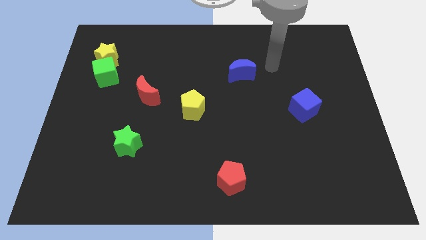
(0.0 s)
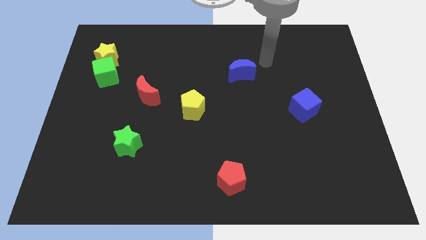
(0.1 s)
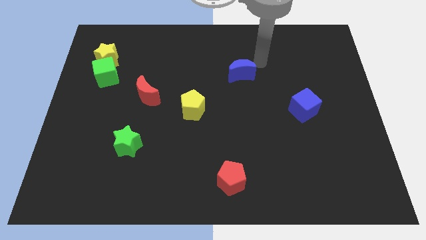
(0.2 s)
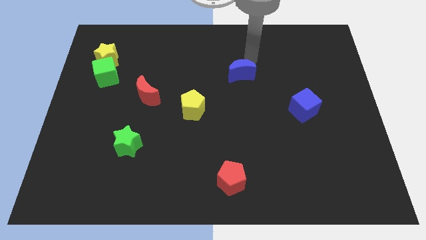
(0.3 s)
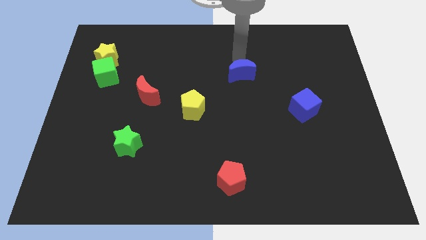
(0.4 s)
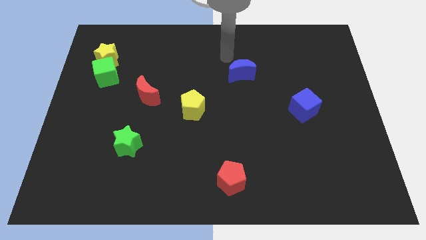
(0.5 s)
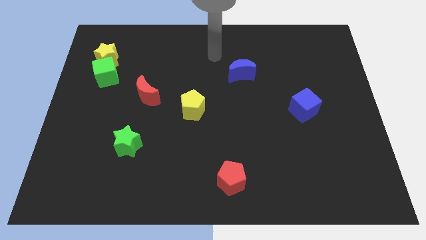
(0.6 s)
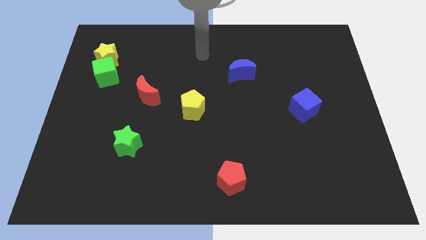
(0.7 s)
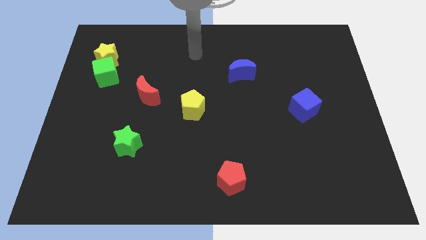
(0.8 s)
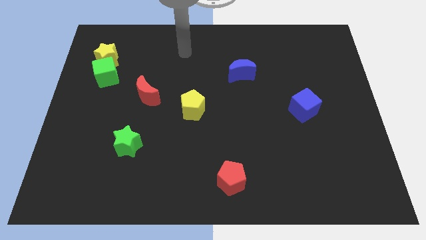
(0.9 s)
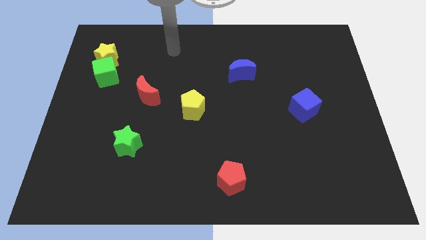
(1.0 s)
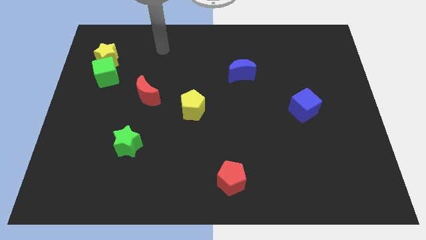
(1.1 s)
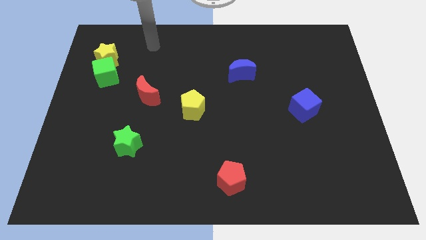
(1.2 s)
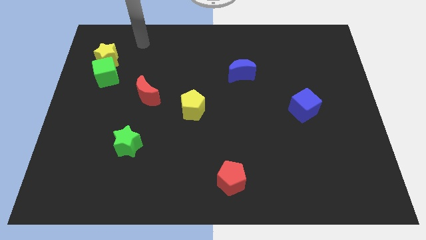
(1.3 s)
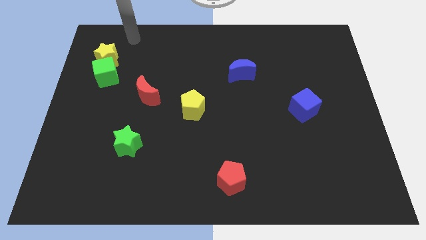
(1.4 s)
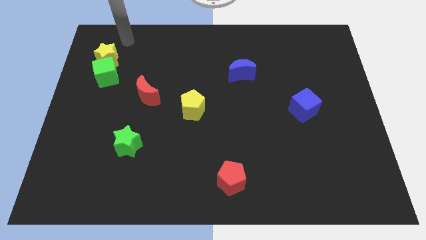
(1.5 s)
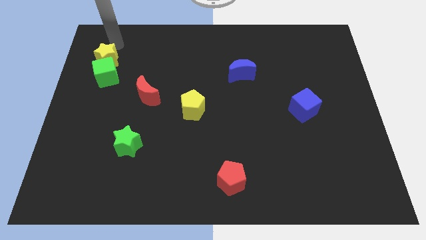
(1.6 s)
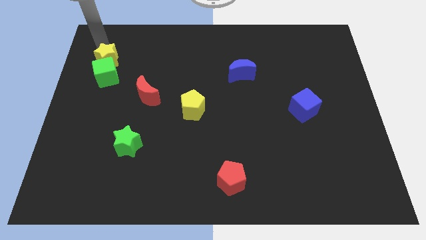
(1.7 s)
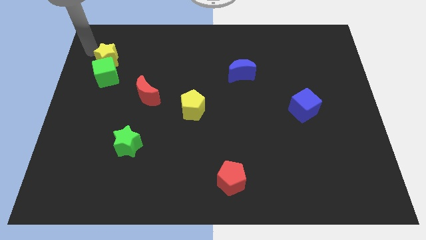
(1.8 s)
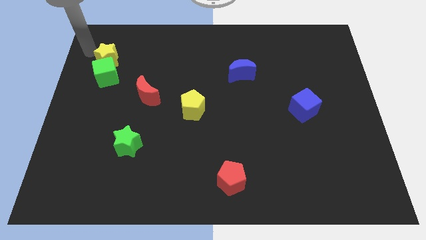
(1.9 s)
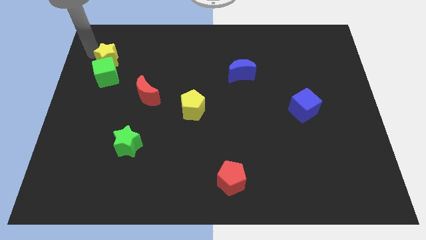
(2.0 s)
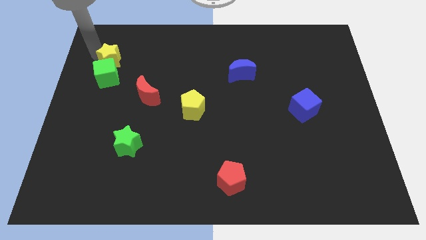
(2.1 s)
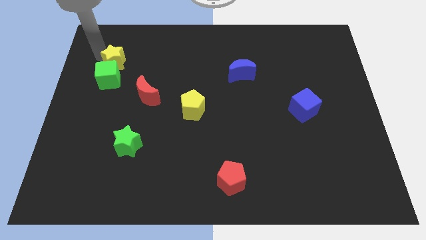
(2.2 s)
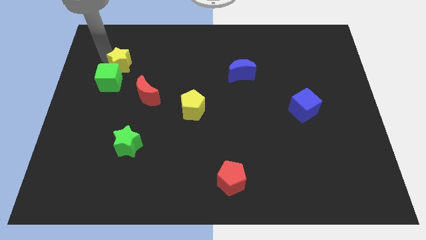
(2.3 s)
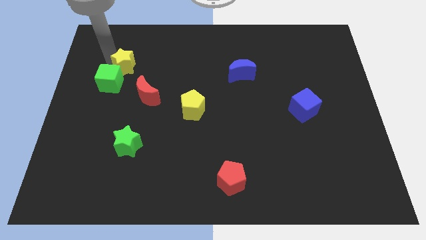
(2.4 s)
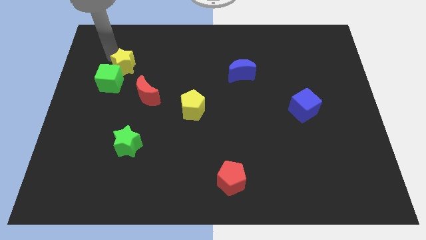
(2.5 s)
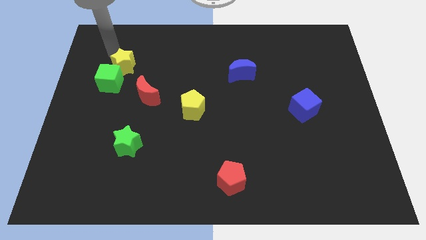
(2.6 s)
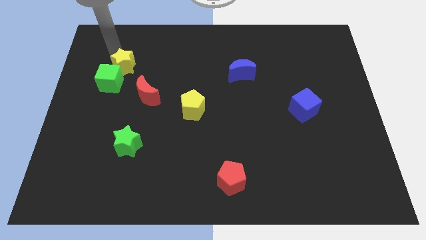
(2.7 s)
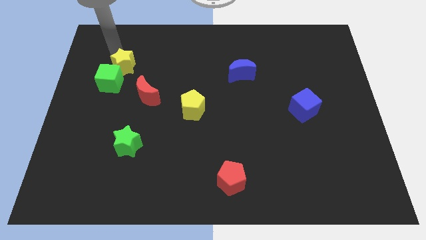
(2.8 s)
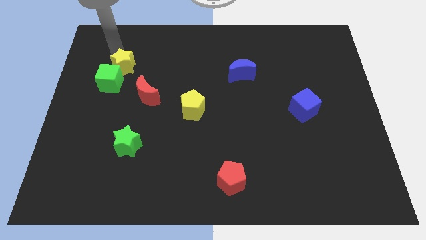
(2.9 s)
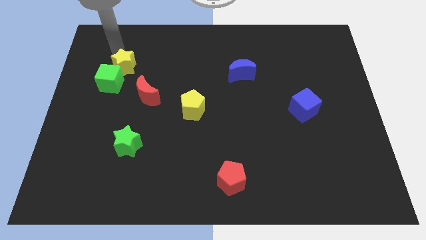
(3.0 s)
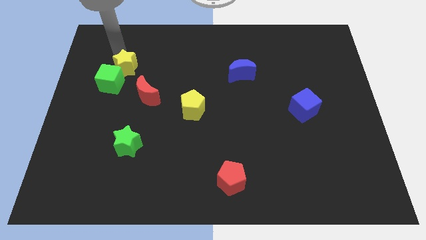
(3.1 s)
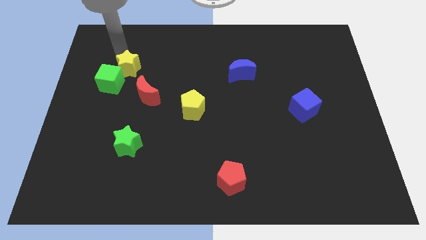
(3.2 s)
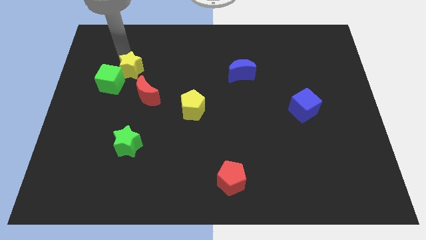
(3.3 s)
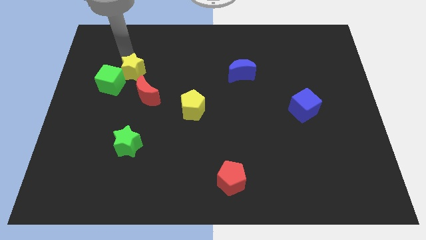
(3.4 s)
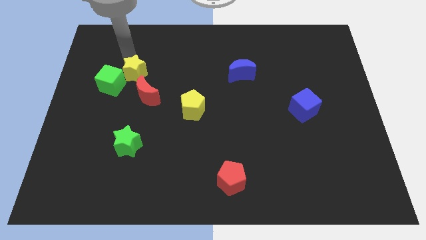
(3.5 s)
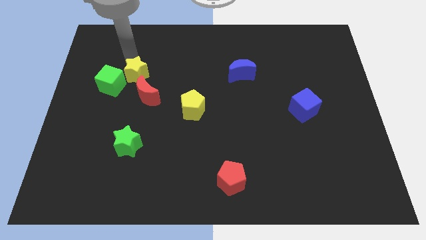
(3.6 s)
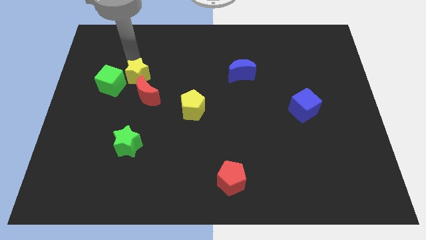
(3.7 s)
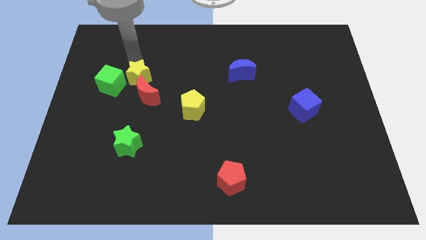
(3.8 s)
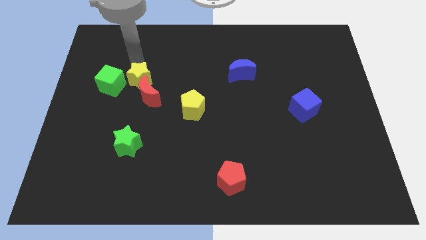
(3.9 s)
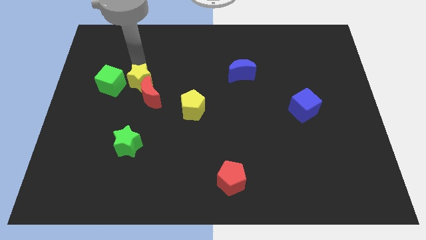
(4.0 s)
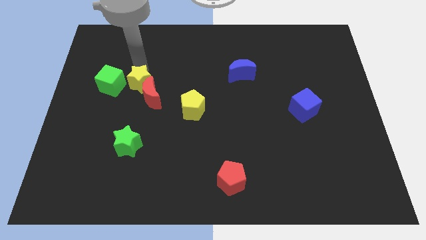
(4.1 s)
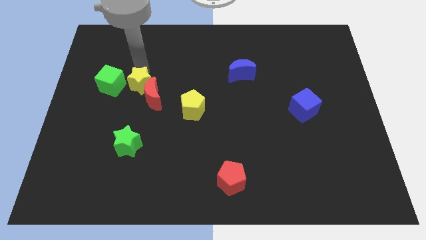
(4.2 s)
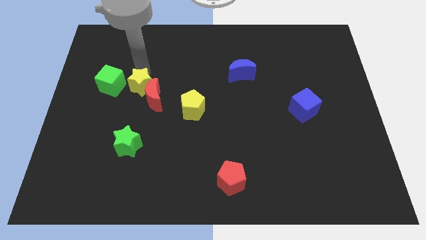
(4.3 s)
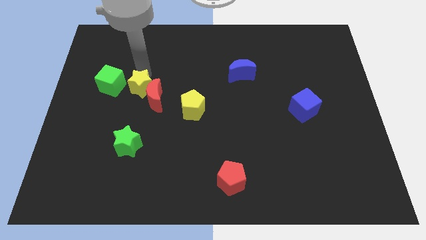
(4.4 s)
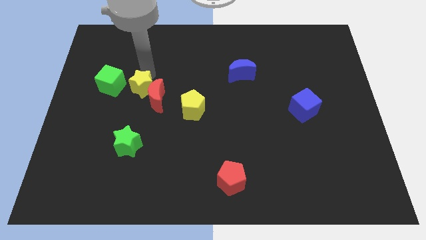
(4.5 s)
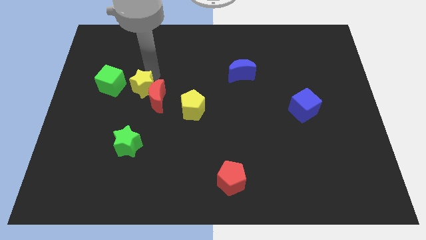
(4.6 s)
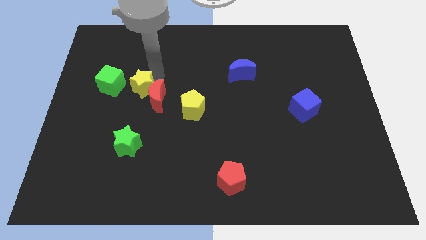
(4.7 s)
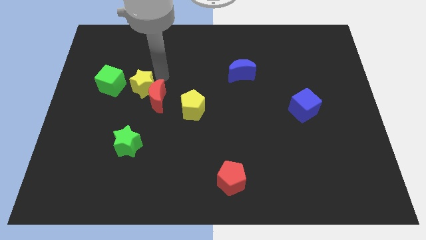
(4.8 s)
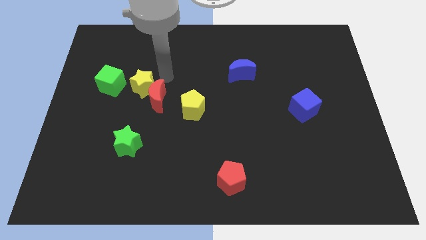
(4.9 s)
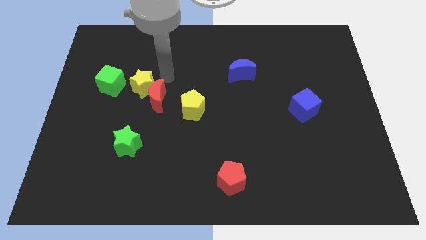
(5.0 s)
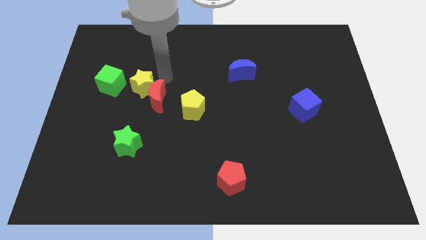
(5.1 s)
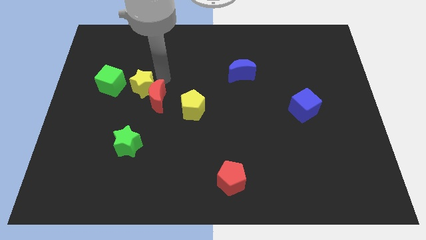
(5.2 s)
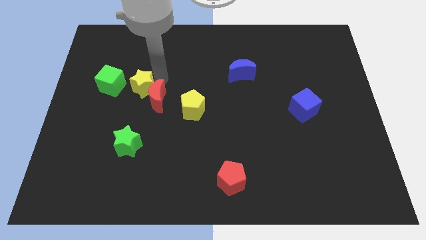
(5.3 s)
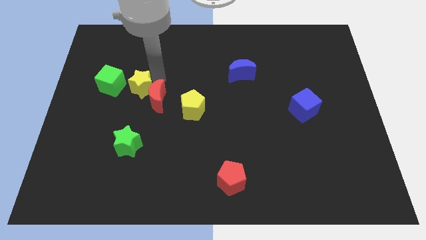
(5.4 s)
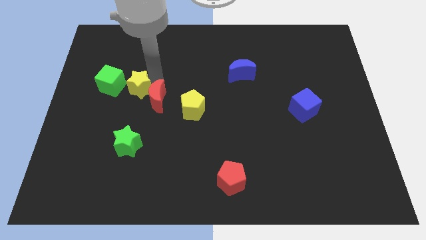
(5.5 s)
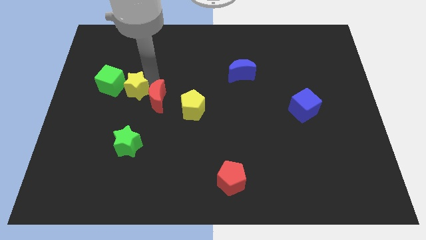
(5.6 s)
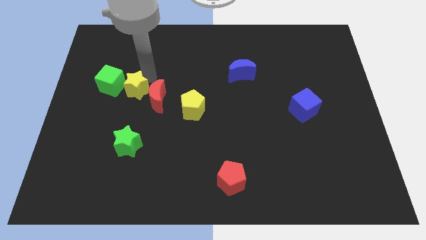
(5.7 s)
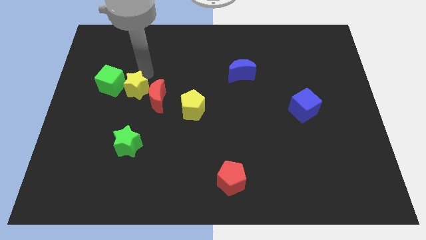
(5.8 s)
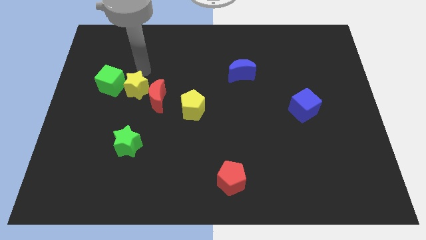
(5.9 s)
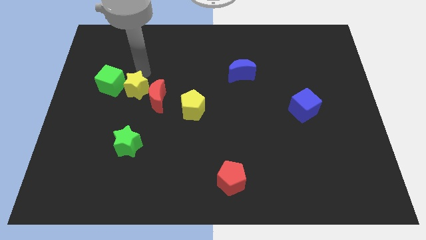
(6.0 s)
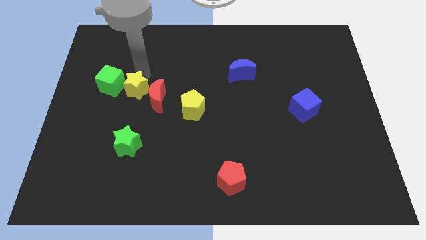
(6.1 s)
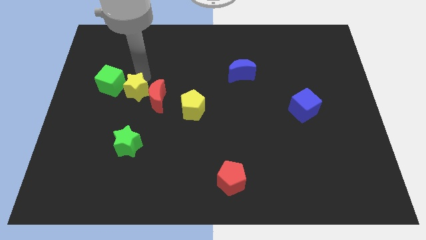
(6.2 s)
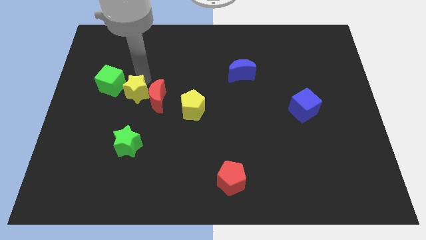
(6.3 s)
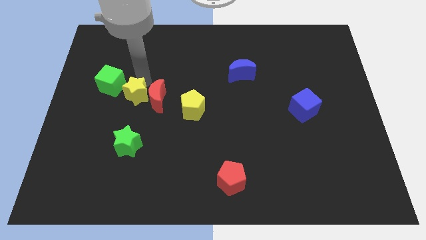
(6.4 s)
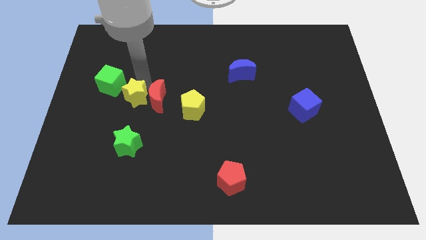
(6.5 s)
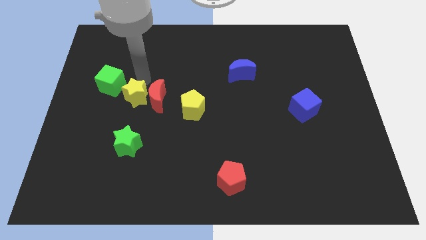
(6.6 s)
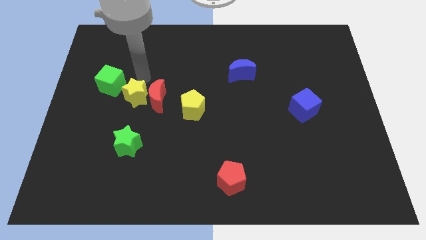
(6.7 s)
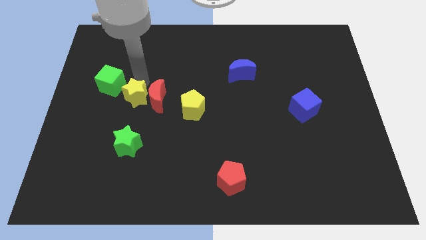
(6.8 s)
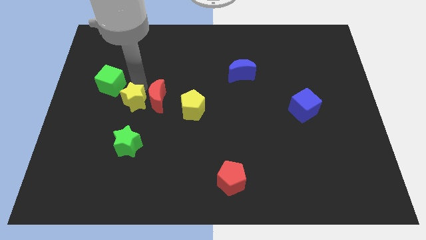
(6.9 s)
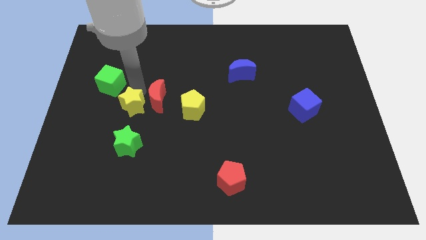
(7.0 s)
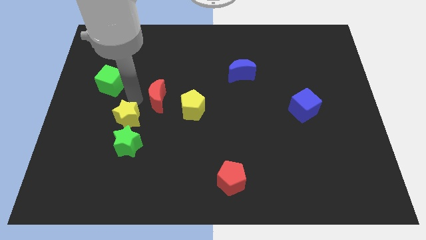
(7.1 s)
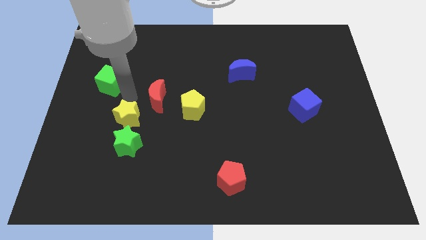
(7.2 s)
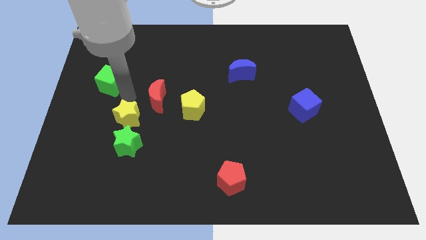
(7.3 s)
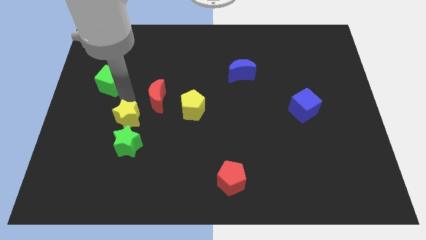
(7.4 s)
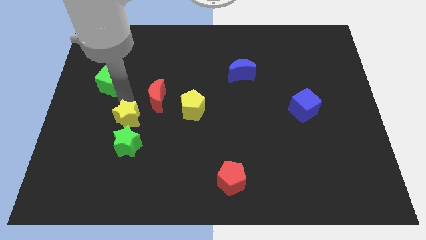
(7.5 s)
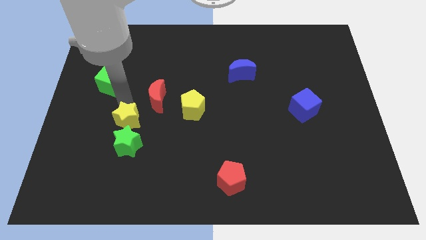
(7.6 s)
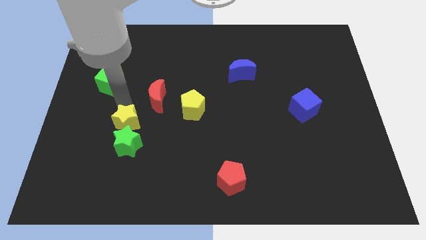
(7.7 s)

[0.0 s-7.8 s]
push the yellow star next to the green star
